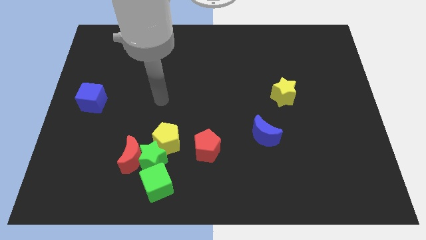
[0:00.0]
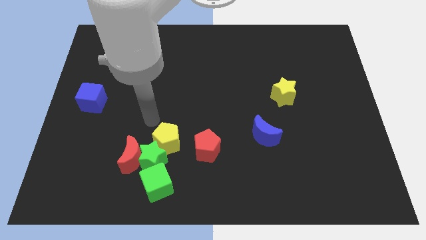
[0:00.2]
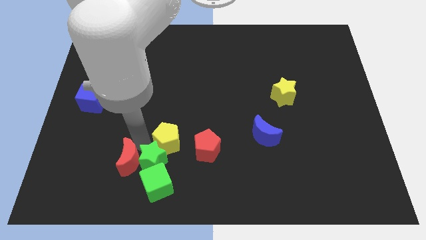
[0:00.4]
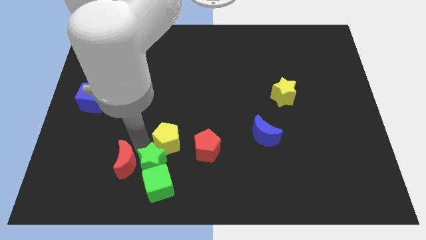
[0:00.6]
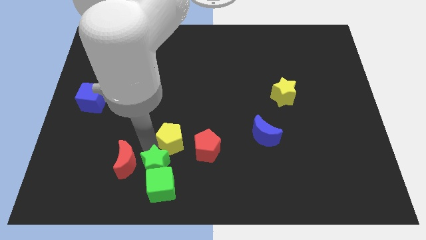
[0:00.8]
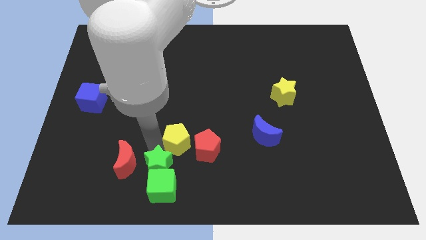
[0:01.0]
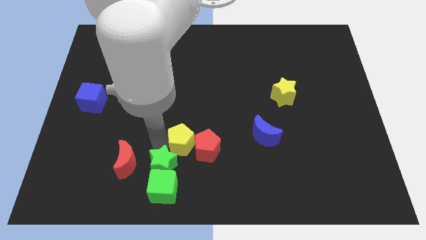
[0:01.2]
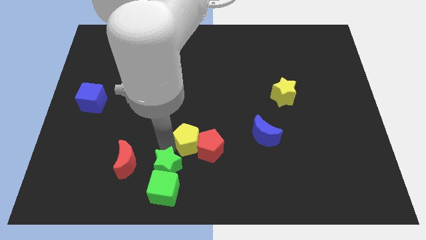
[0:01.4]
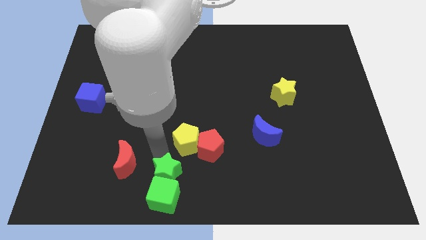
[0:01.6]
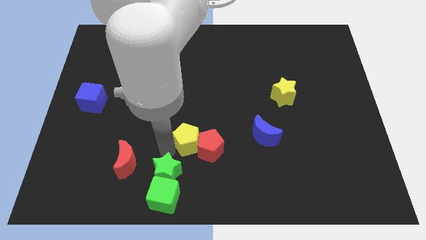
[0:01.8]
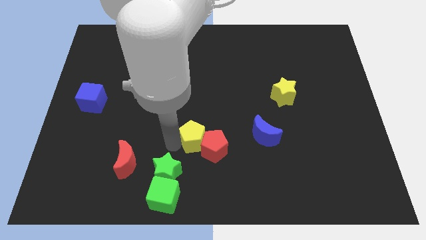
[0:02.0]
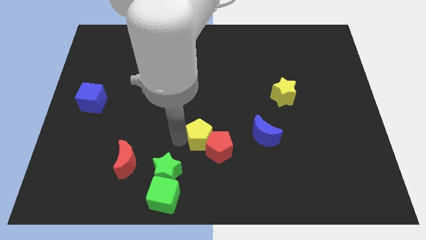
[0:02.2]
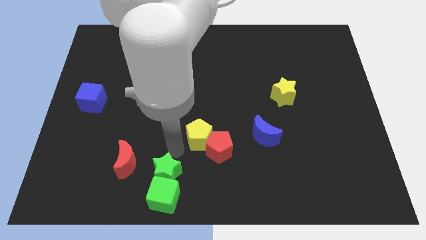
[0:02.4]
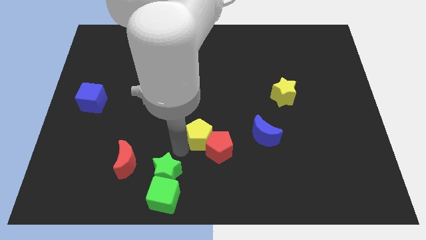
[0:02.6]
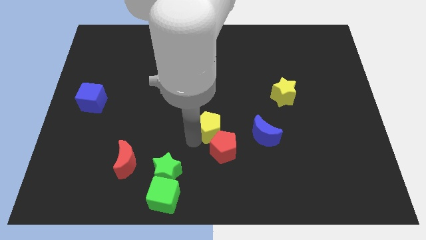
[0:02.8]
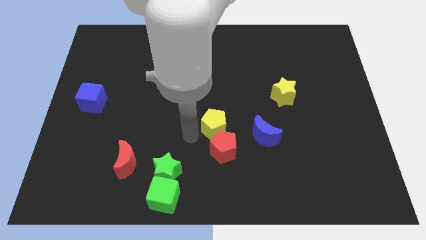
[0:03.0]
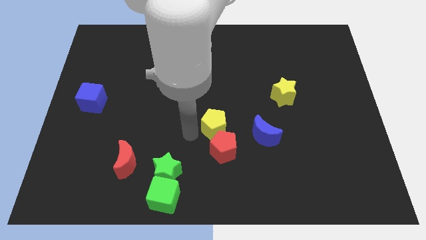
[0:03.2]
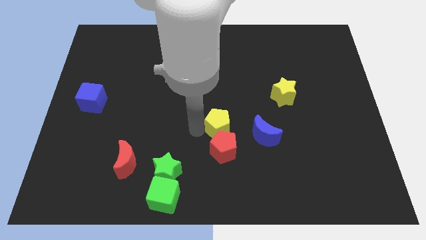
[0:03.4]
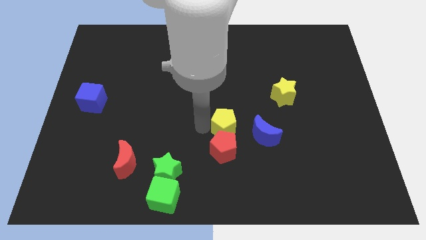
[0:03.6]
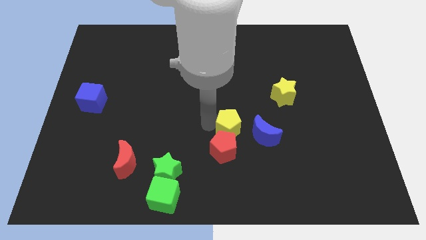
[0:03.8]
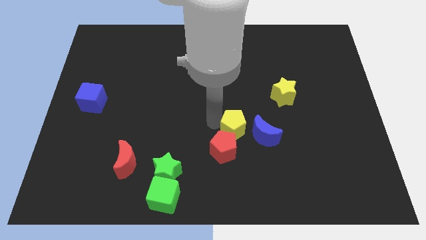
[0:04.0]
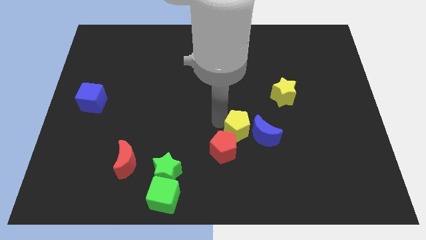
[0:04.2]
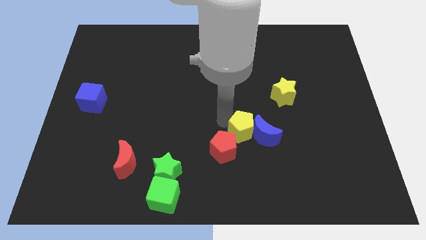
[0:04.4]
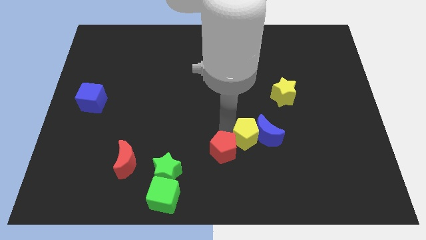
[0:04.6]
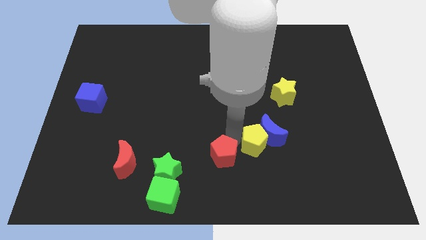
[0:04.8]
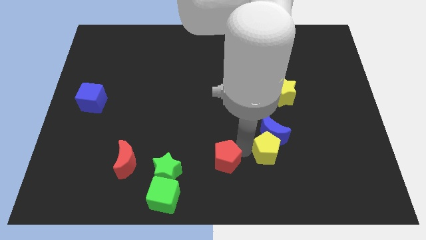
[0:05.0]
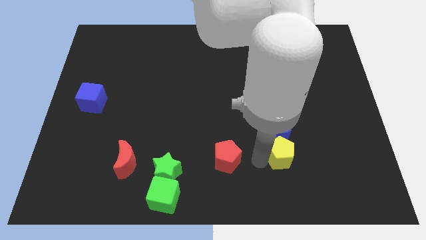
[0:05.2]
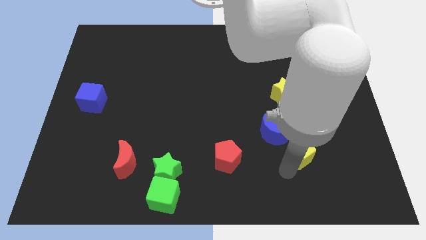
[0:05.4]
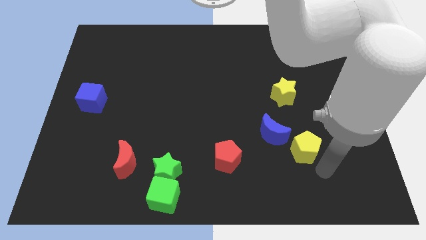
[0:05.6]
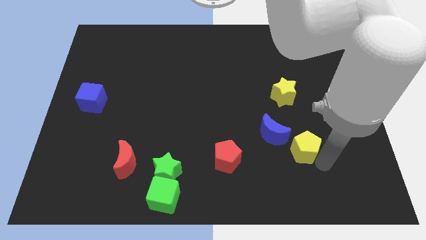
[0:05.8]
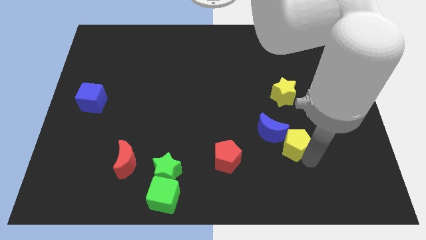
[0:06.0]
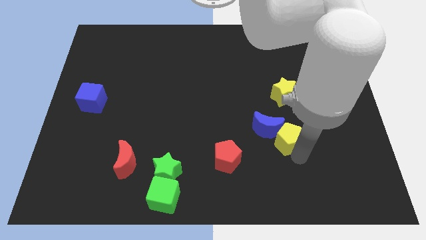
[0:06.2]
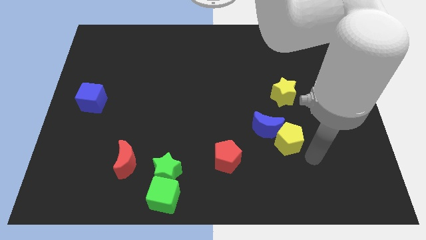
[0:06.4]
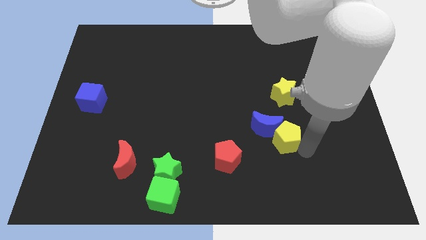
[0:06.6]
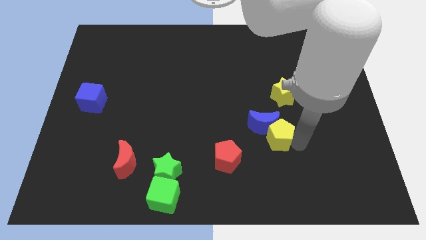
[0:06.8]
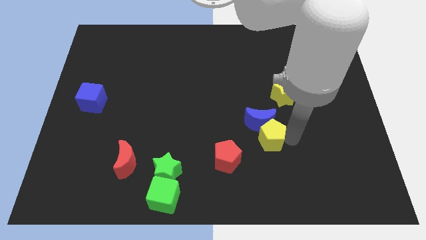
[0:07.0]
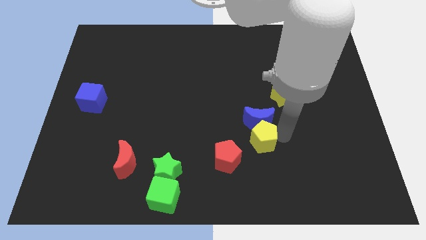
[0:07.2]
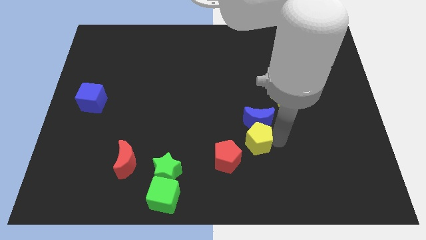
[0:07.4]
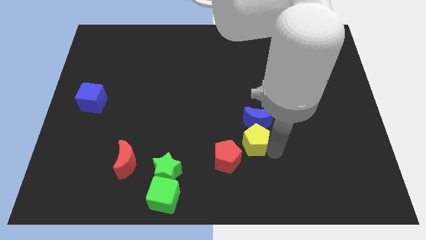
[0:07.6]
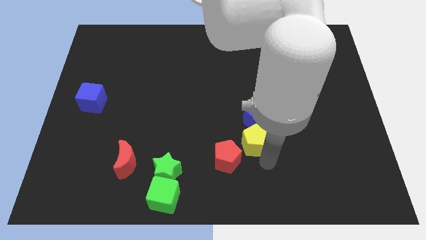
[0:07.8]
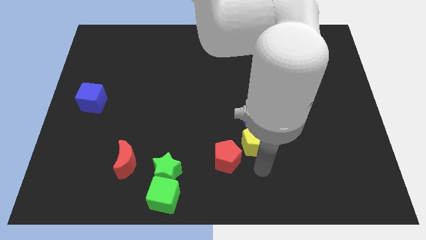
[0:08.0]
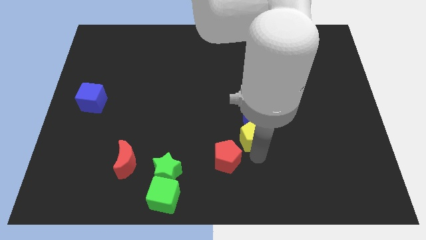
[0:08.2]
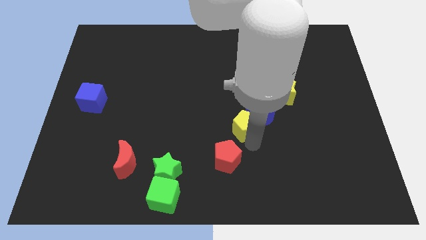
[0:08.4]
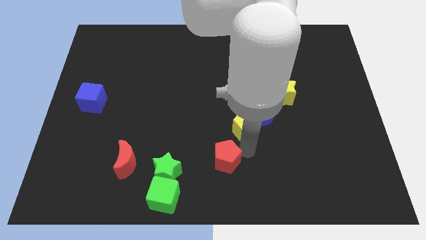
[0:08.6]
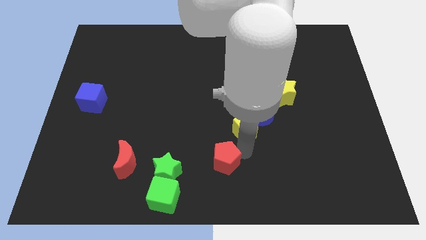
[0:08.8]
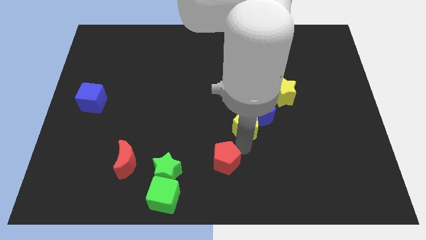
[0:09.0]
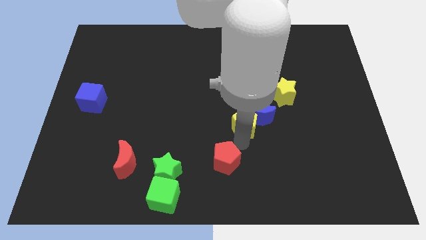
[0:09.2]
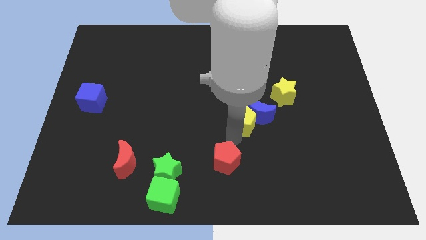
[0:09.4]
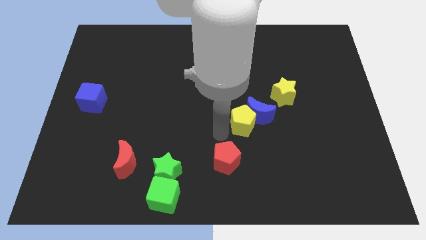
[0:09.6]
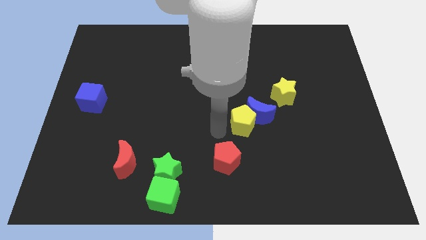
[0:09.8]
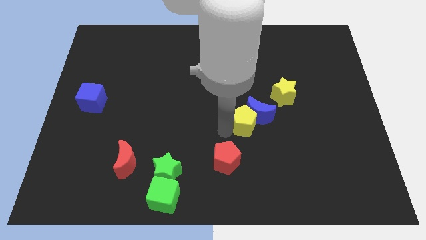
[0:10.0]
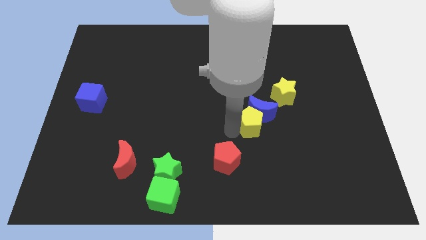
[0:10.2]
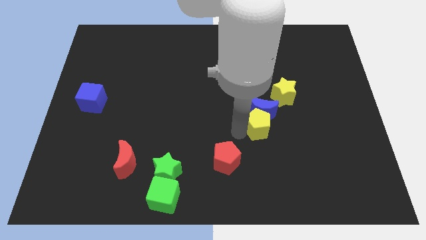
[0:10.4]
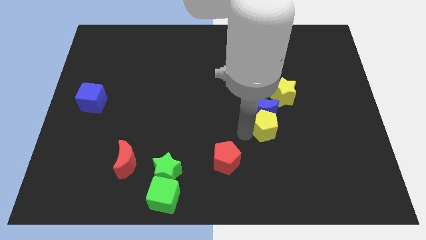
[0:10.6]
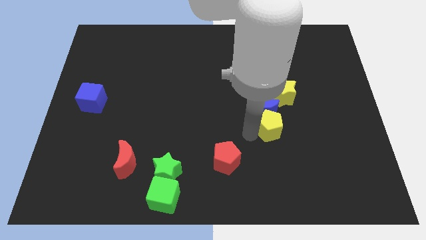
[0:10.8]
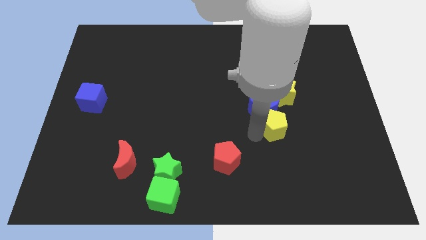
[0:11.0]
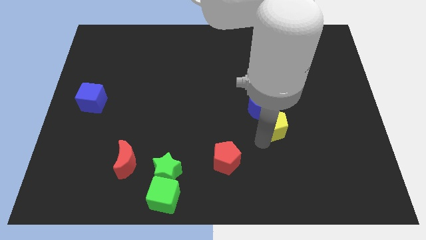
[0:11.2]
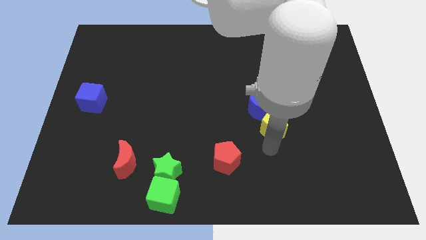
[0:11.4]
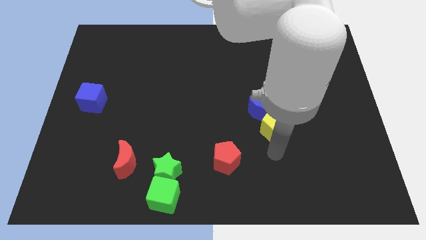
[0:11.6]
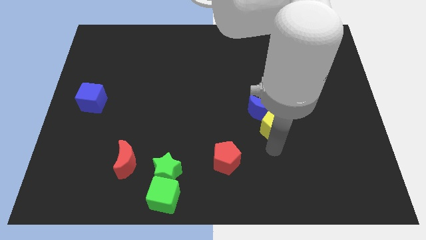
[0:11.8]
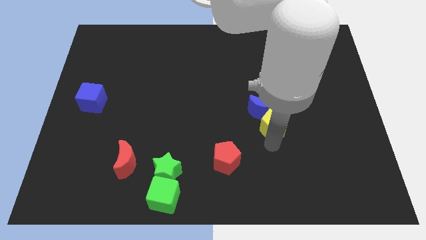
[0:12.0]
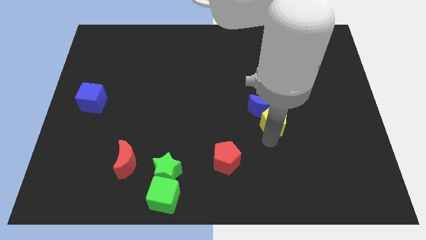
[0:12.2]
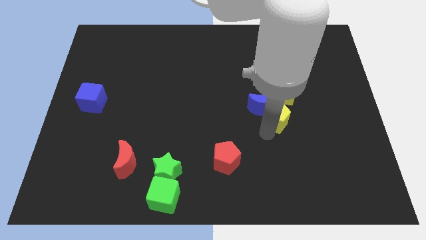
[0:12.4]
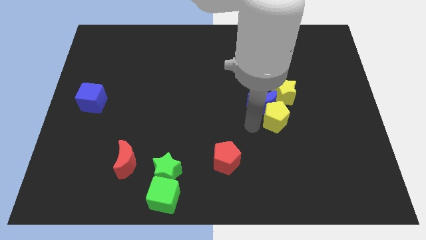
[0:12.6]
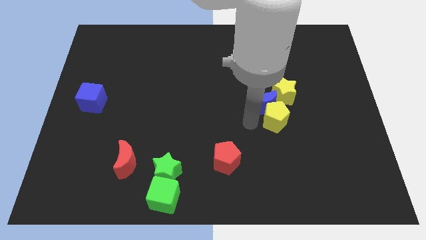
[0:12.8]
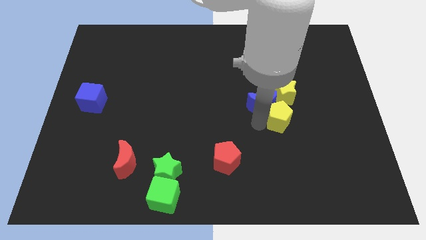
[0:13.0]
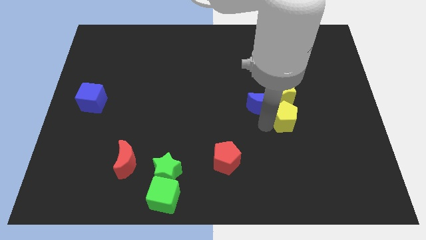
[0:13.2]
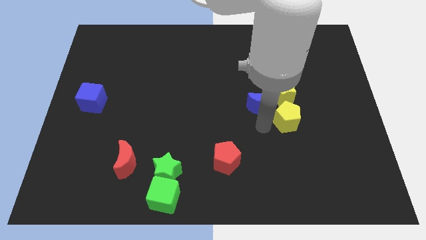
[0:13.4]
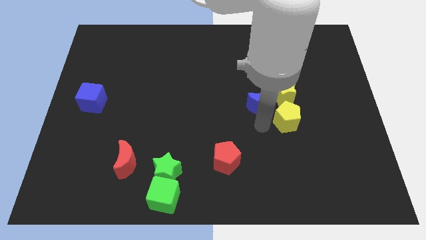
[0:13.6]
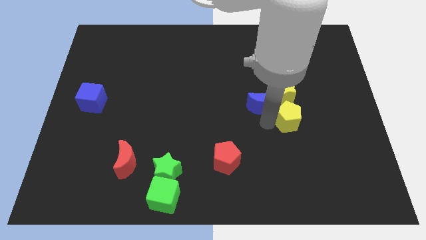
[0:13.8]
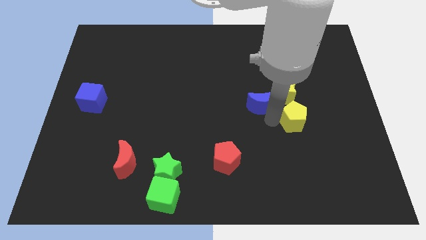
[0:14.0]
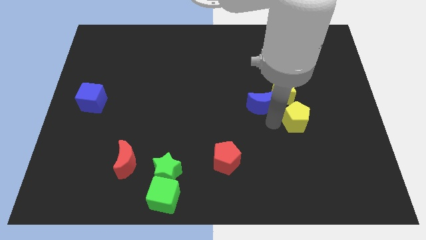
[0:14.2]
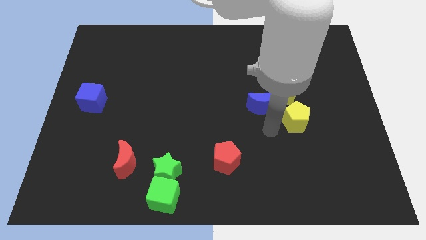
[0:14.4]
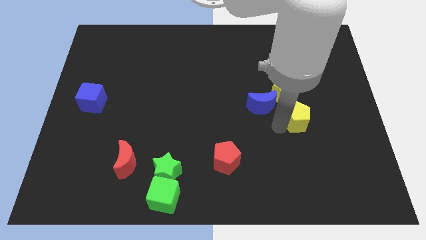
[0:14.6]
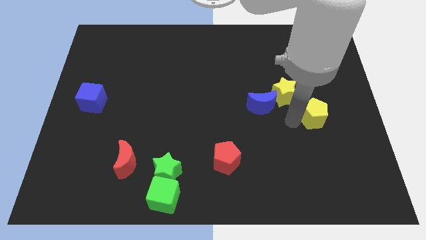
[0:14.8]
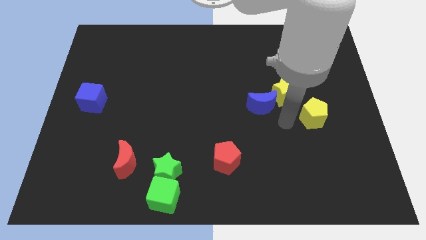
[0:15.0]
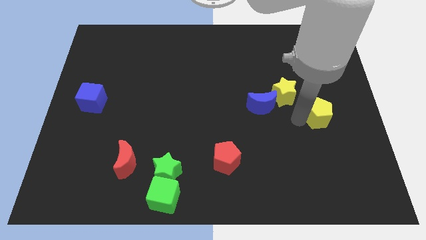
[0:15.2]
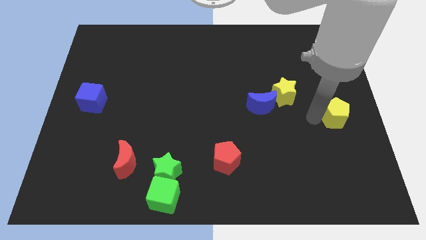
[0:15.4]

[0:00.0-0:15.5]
push the yellow pentagon to the right side
